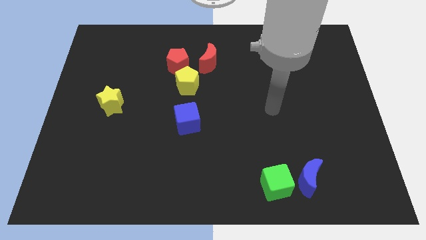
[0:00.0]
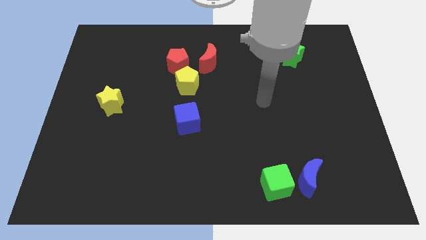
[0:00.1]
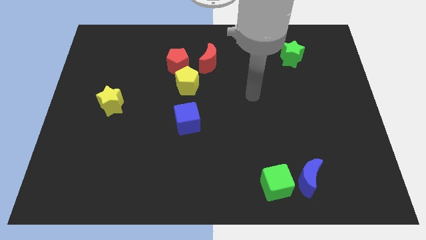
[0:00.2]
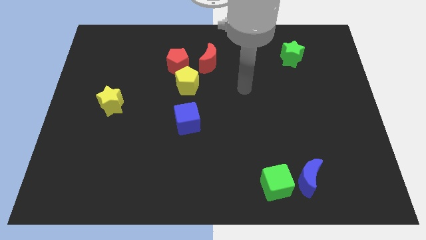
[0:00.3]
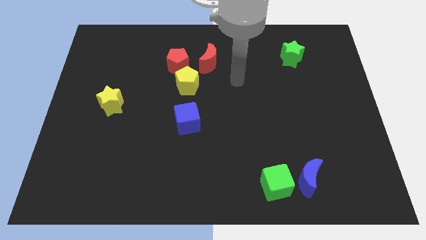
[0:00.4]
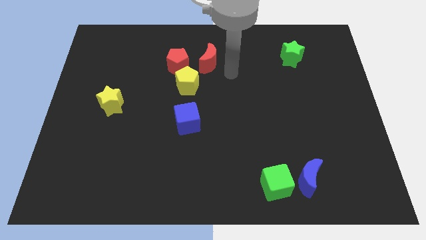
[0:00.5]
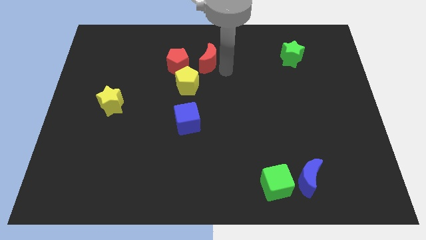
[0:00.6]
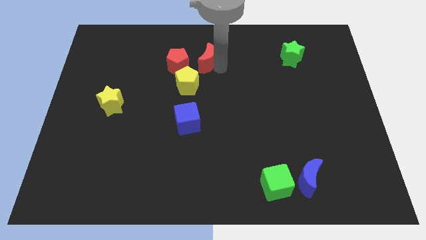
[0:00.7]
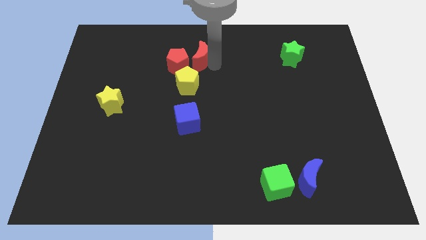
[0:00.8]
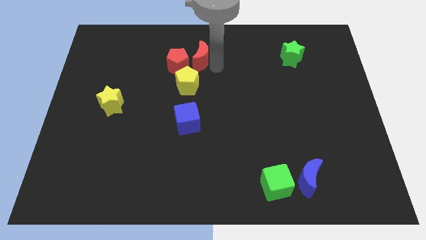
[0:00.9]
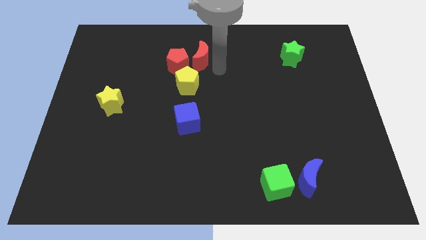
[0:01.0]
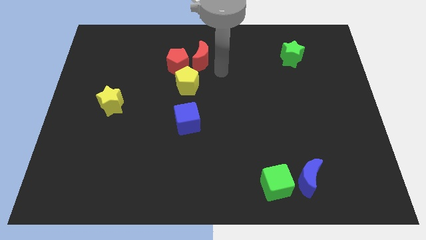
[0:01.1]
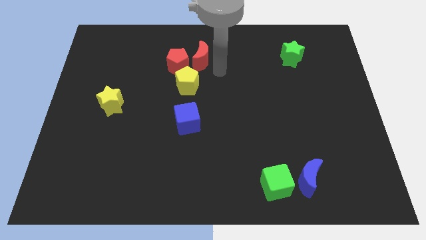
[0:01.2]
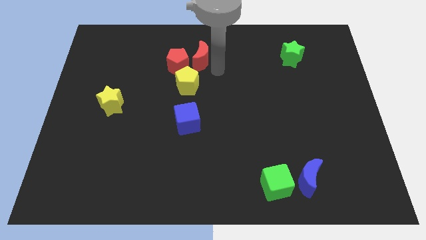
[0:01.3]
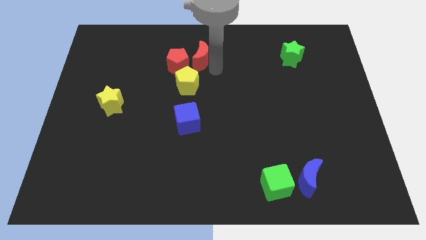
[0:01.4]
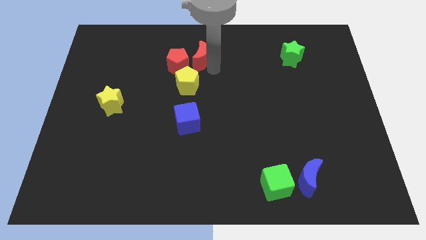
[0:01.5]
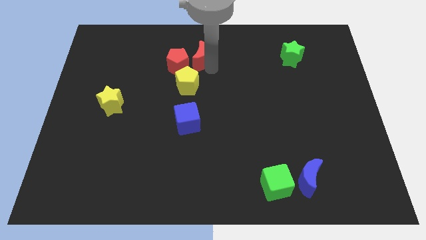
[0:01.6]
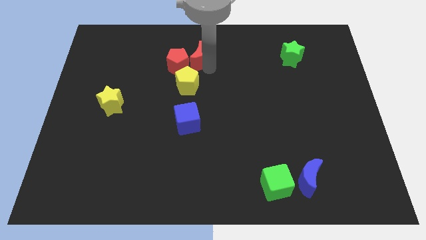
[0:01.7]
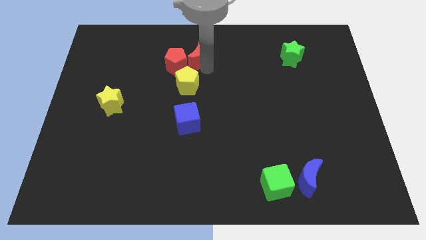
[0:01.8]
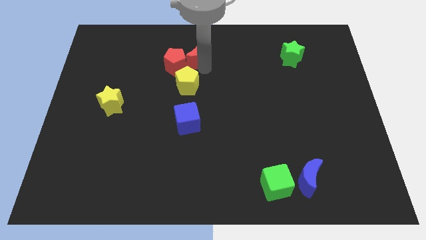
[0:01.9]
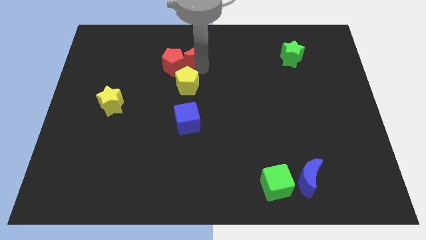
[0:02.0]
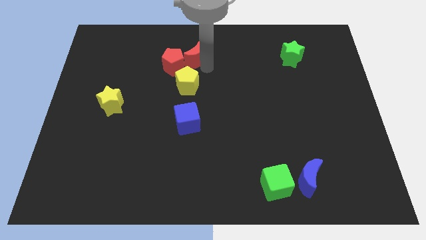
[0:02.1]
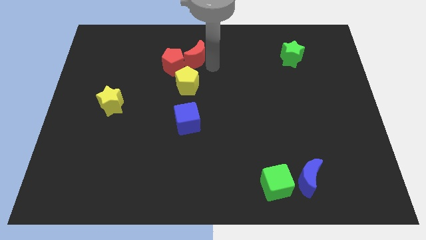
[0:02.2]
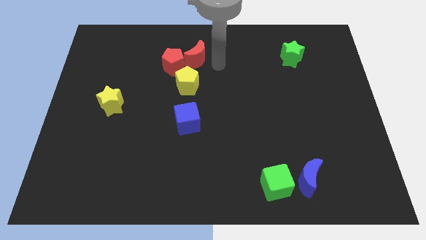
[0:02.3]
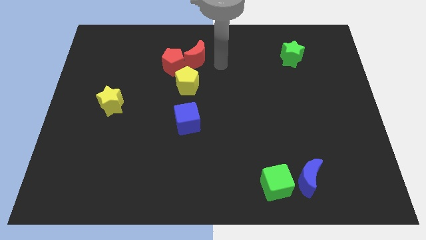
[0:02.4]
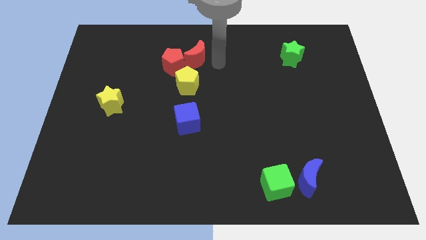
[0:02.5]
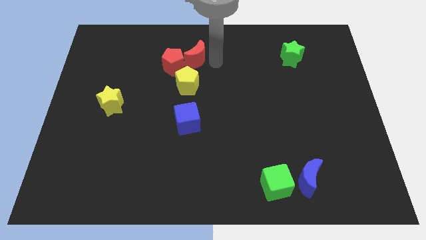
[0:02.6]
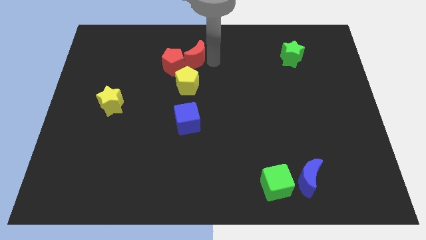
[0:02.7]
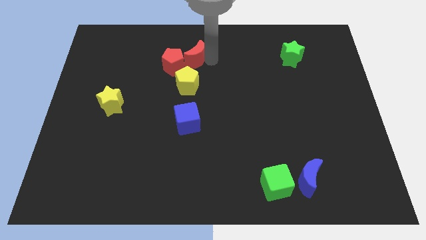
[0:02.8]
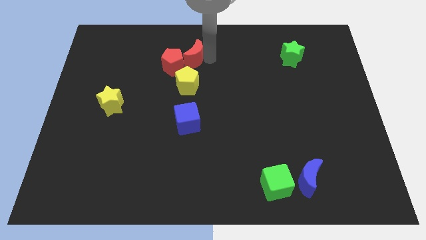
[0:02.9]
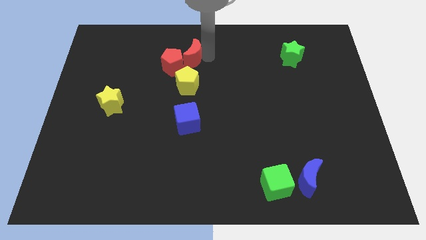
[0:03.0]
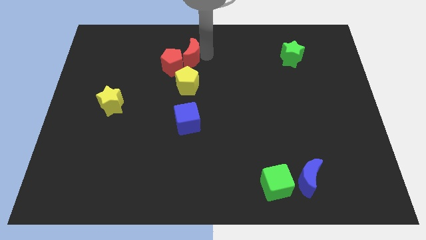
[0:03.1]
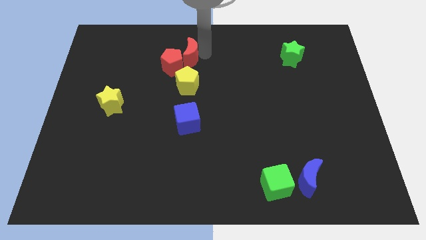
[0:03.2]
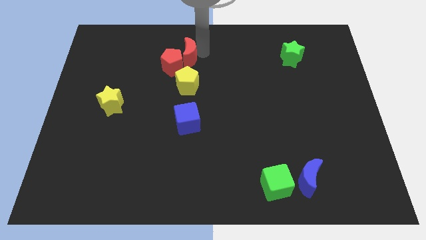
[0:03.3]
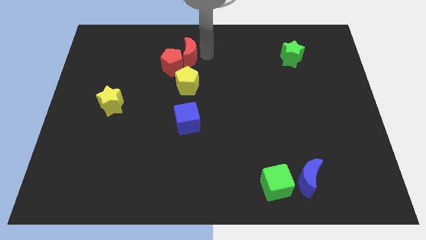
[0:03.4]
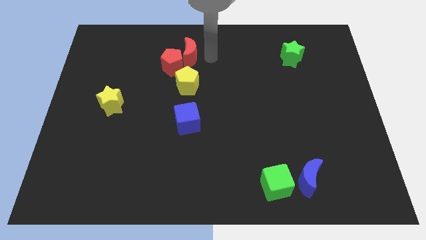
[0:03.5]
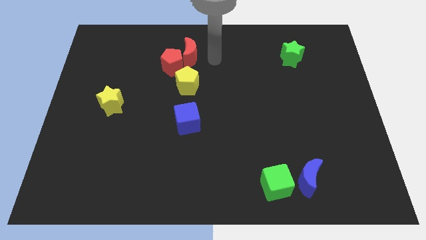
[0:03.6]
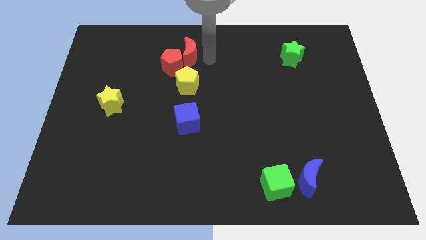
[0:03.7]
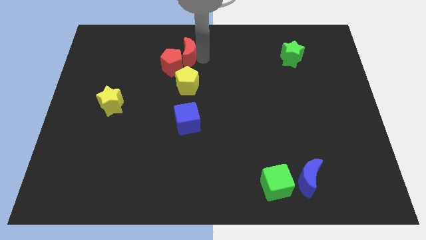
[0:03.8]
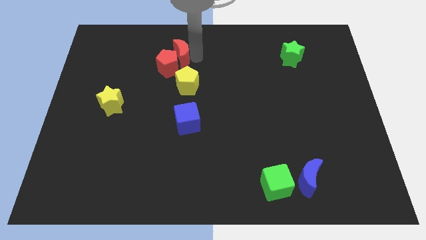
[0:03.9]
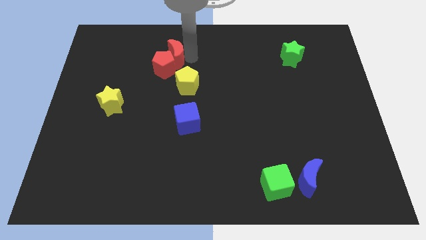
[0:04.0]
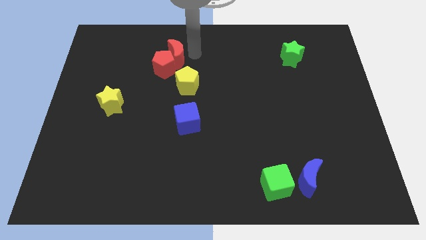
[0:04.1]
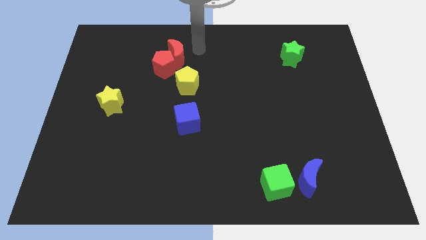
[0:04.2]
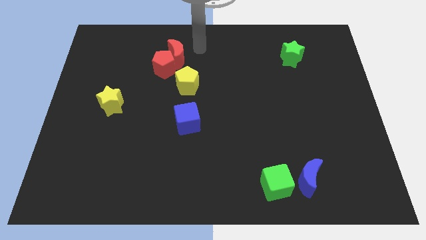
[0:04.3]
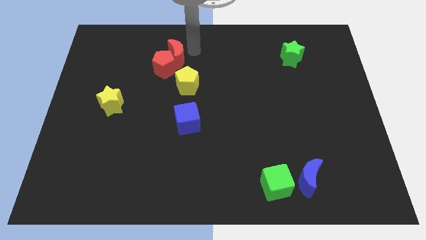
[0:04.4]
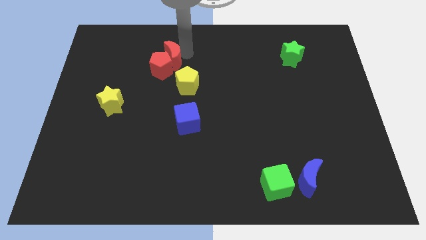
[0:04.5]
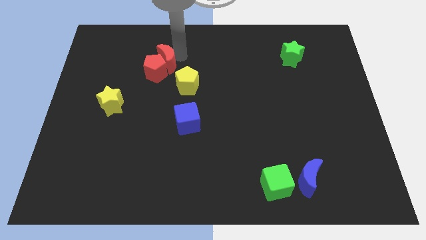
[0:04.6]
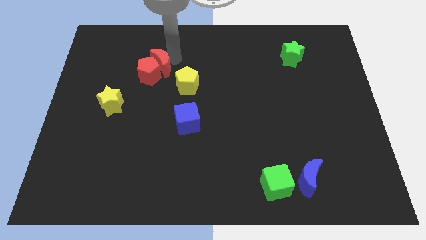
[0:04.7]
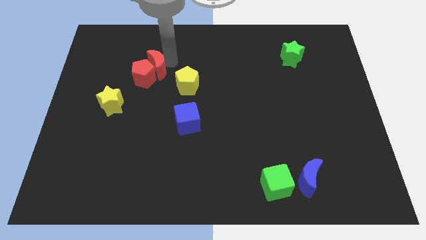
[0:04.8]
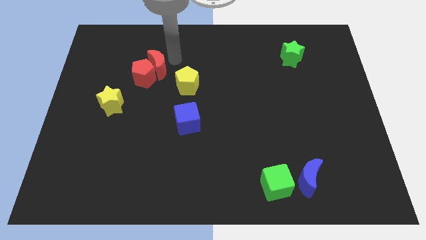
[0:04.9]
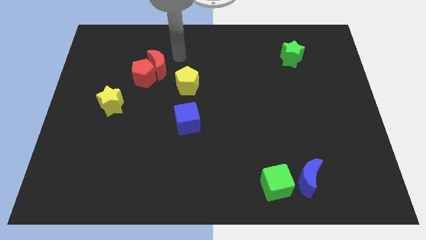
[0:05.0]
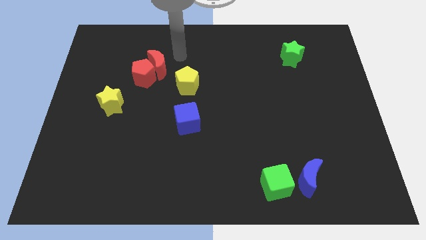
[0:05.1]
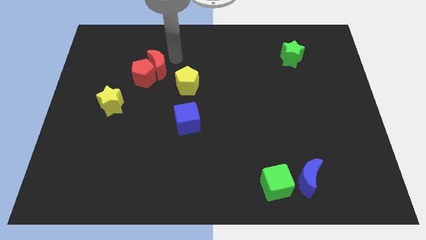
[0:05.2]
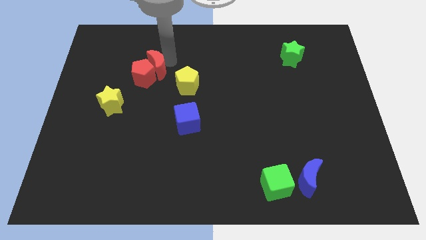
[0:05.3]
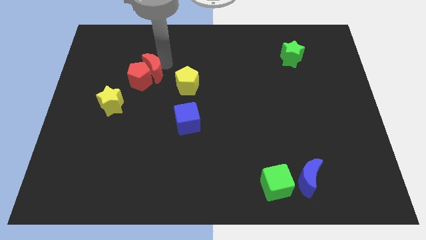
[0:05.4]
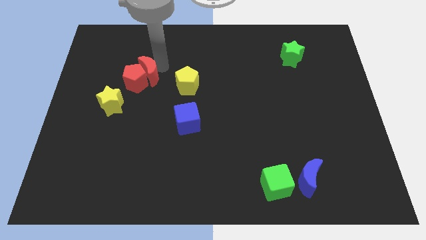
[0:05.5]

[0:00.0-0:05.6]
put the red moon to the top right side of the yellow star

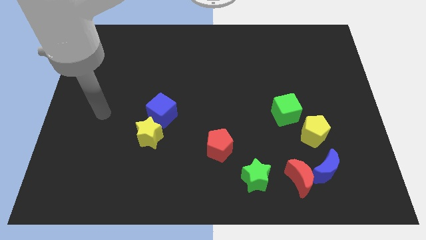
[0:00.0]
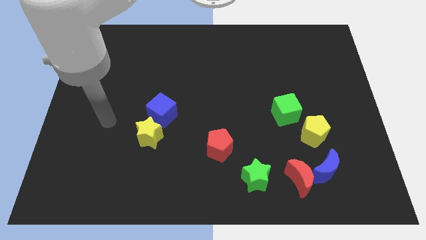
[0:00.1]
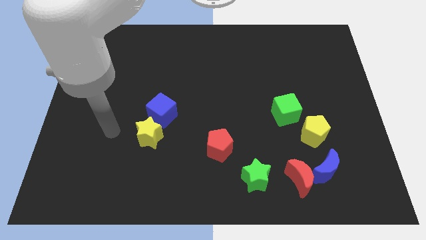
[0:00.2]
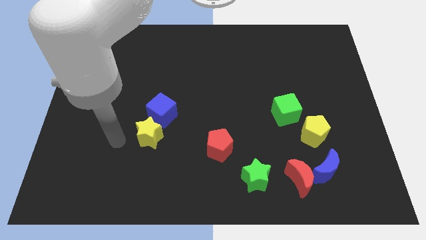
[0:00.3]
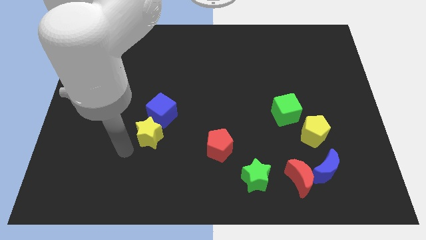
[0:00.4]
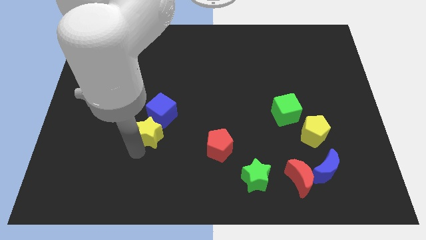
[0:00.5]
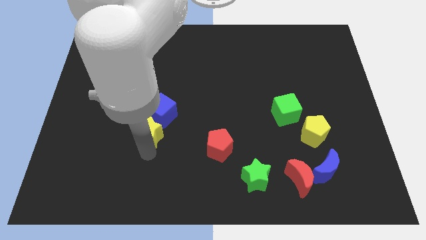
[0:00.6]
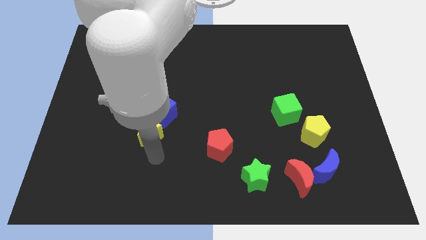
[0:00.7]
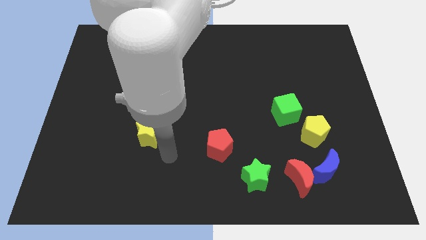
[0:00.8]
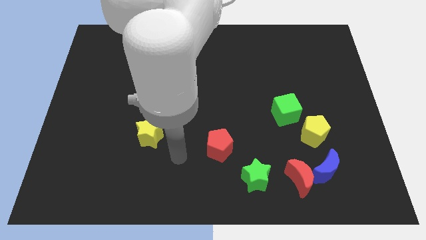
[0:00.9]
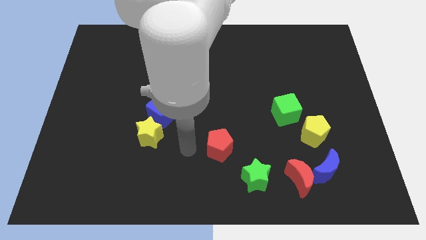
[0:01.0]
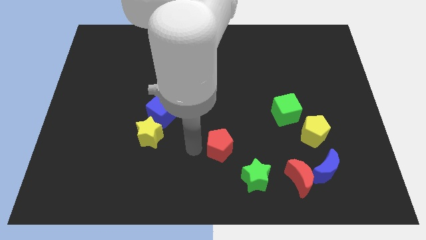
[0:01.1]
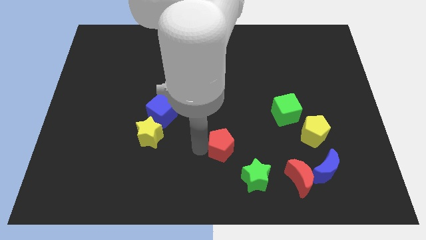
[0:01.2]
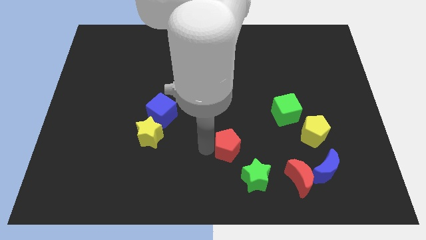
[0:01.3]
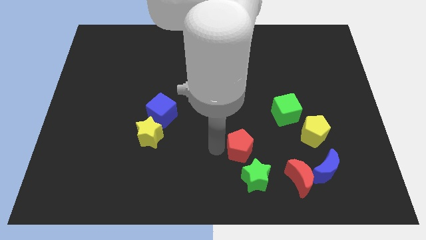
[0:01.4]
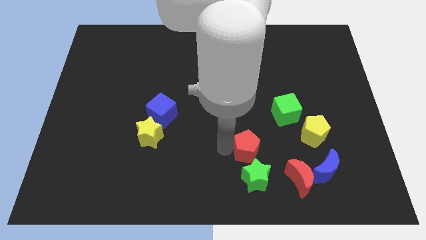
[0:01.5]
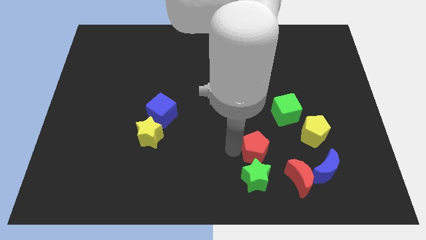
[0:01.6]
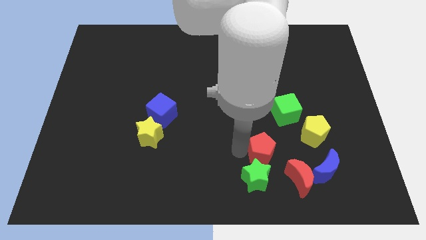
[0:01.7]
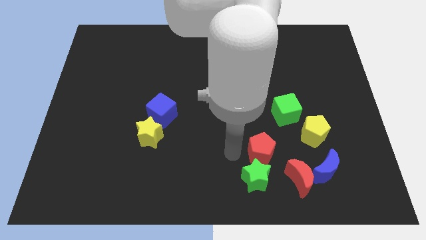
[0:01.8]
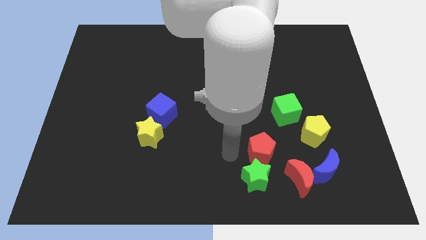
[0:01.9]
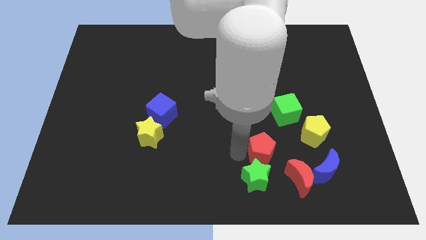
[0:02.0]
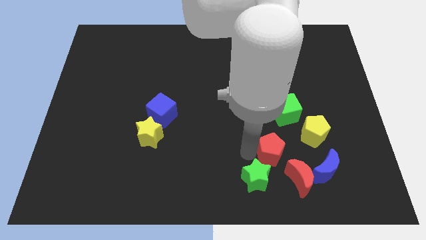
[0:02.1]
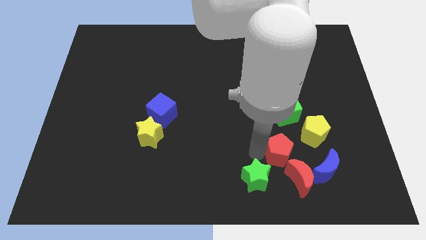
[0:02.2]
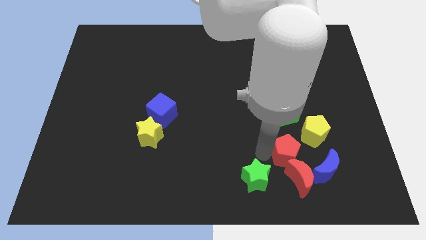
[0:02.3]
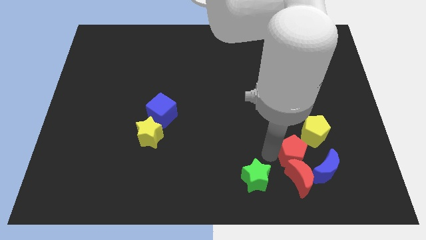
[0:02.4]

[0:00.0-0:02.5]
slide the red pentagon to the top right side of the red moon
